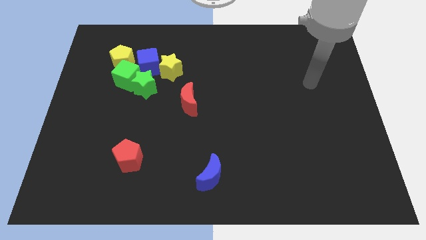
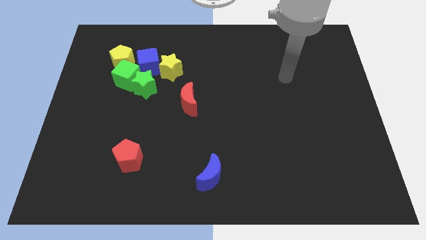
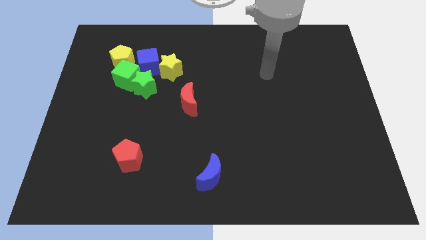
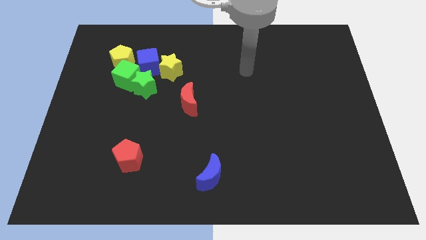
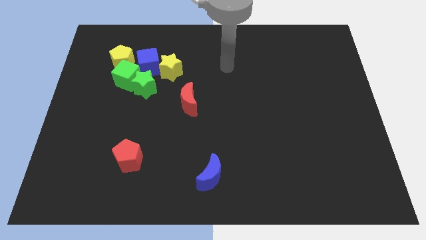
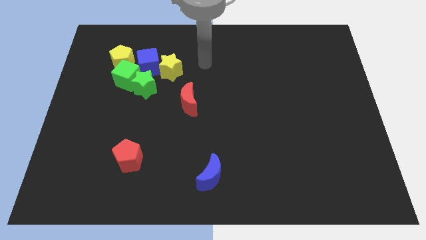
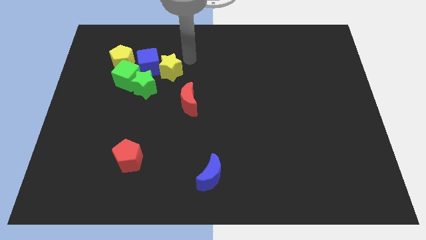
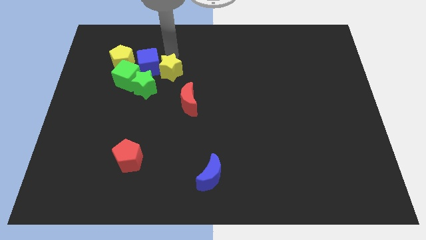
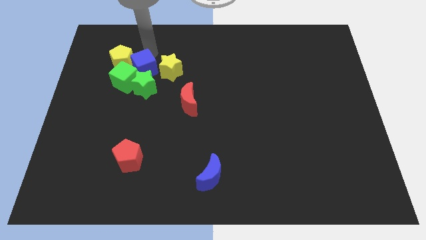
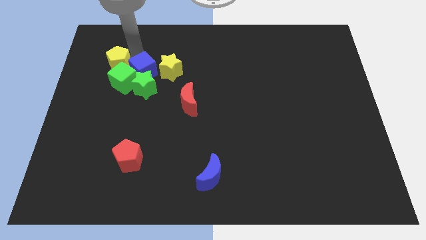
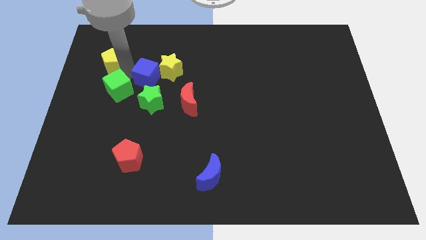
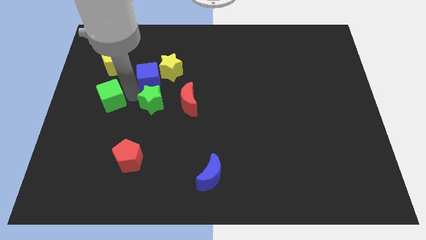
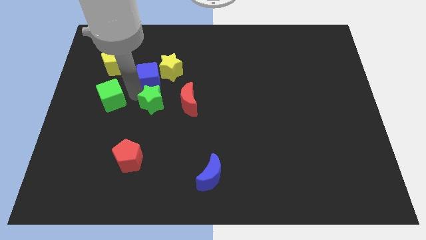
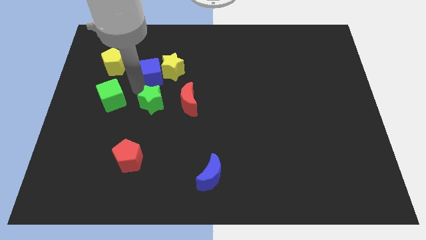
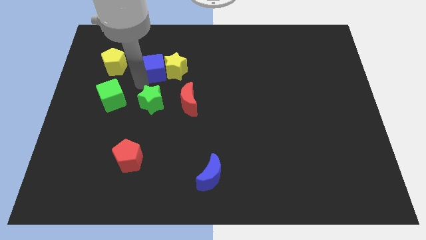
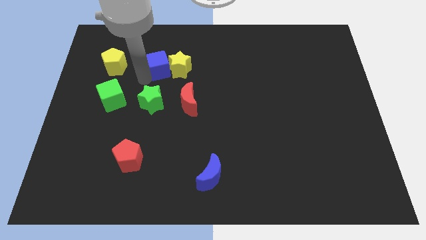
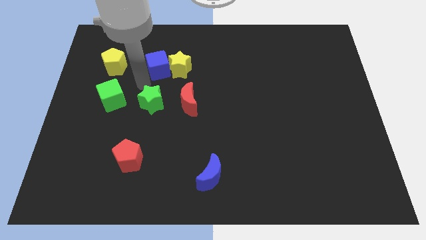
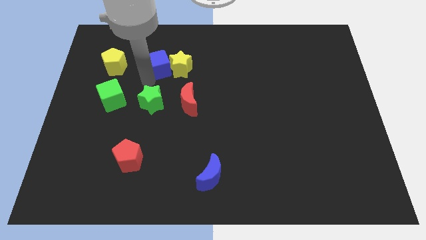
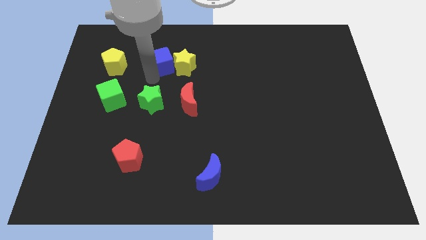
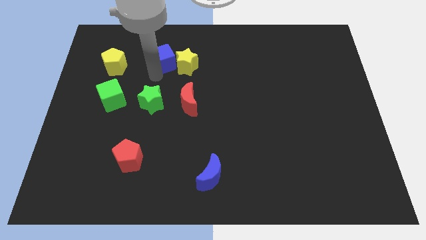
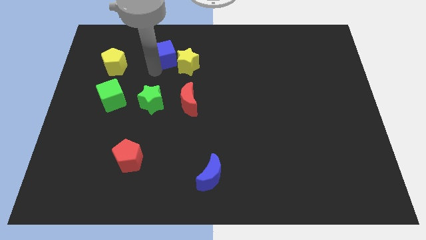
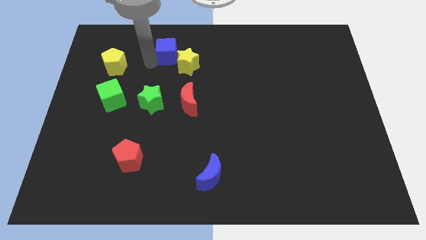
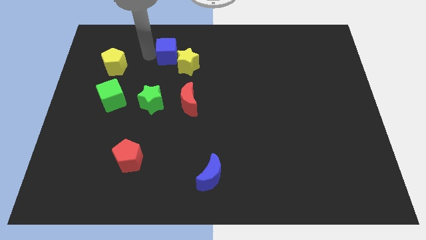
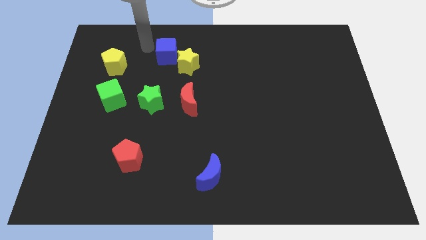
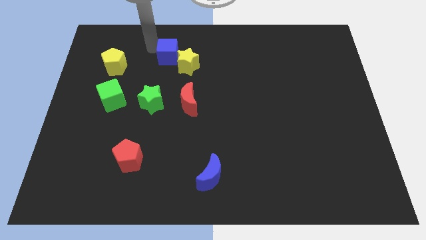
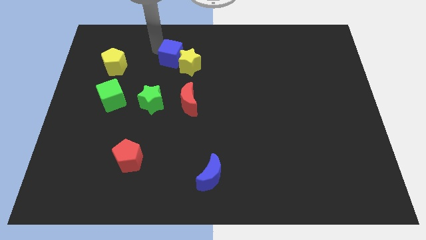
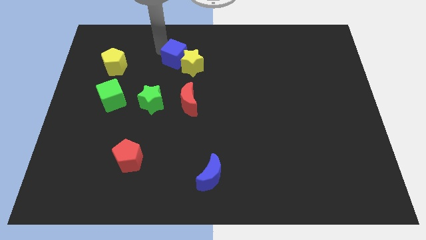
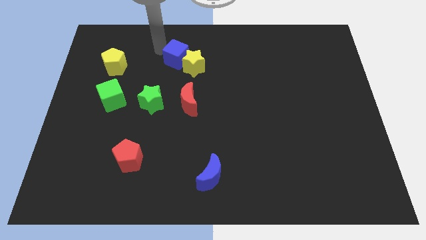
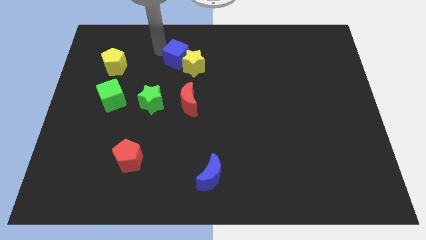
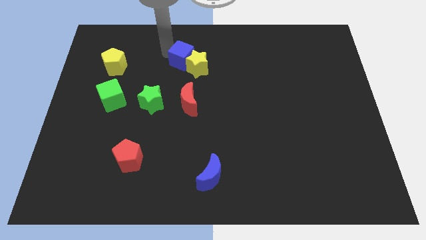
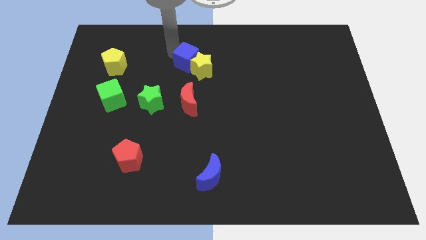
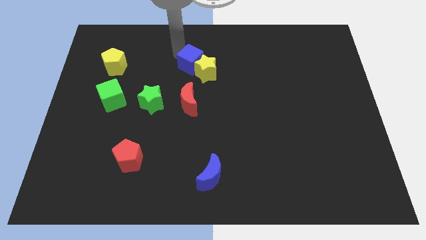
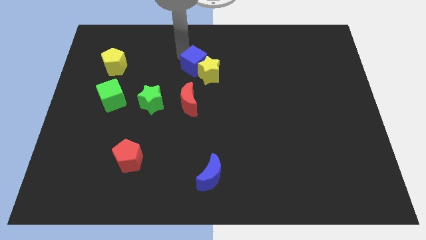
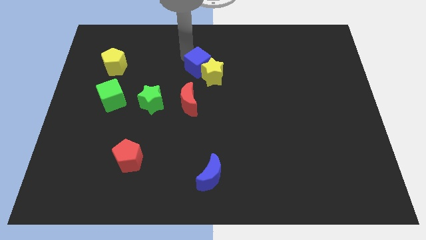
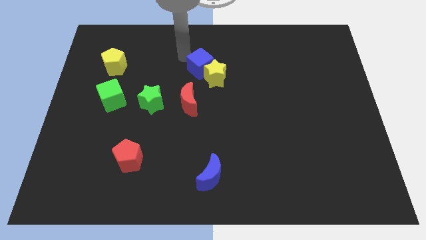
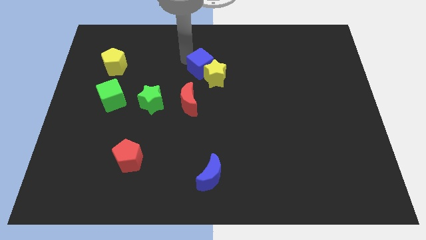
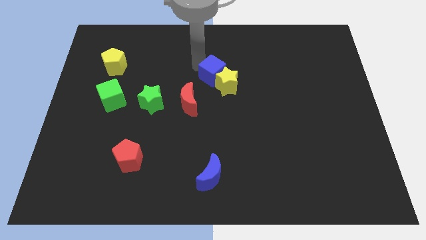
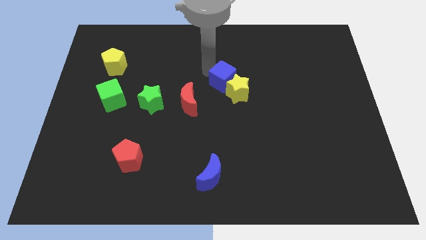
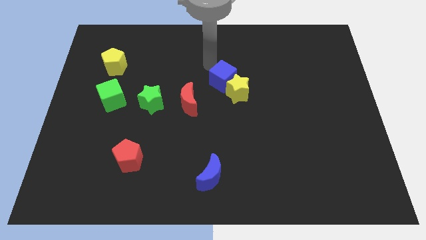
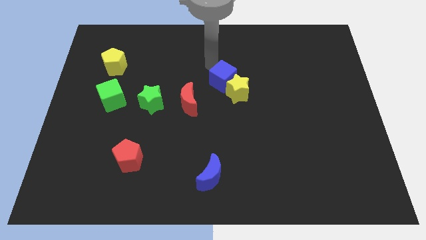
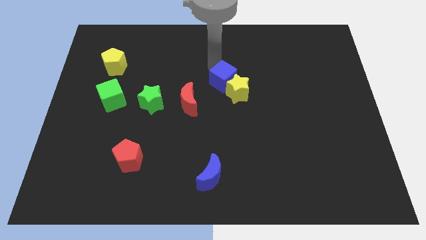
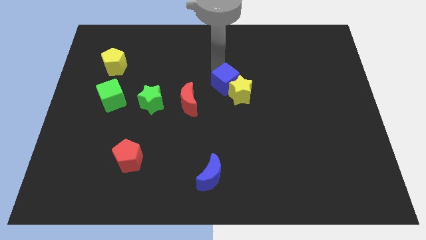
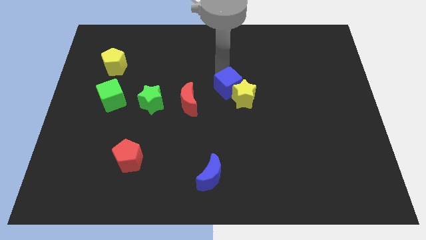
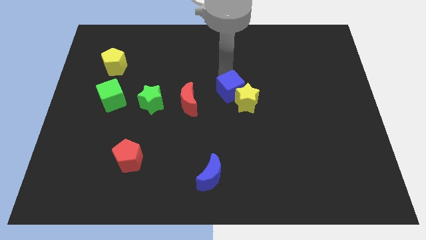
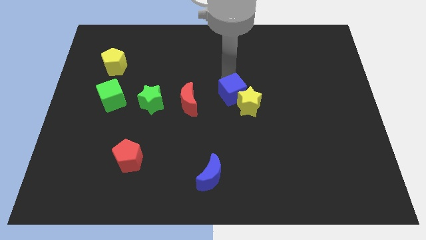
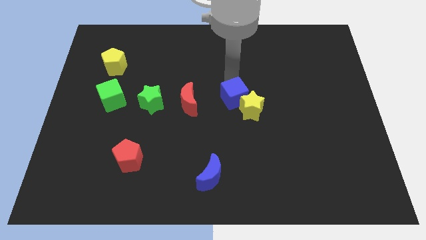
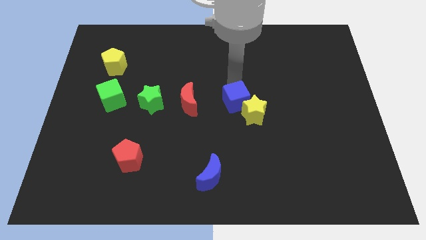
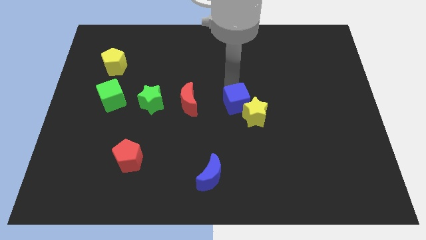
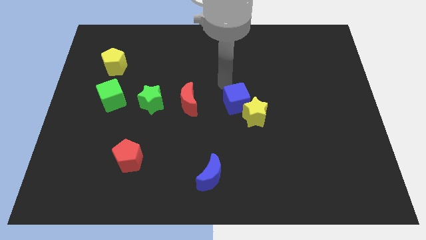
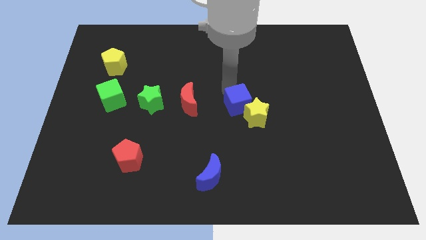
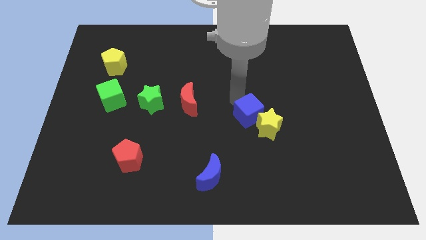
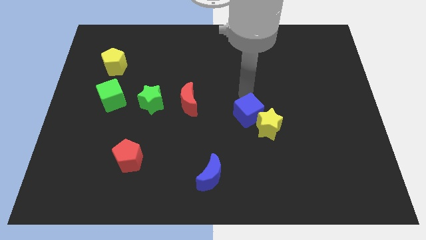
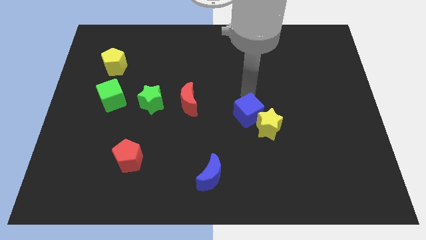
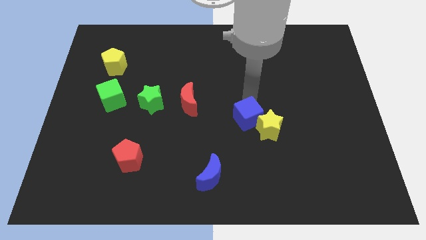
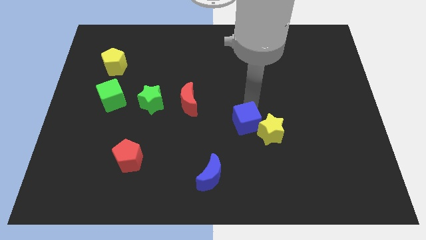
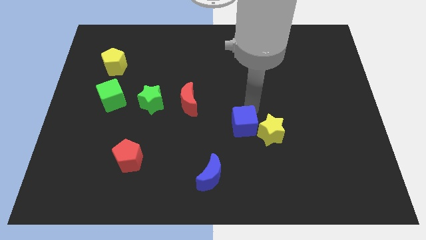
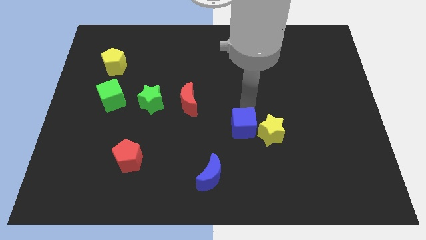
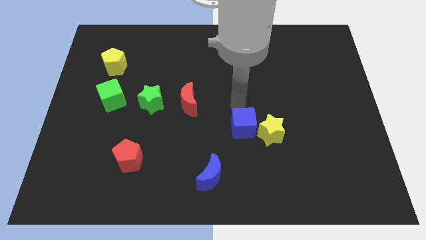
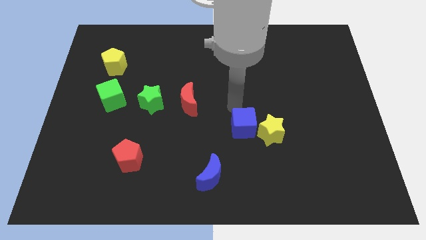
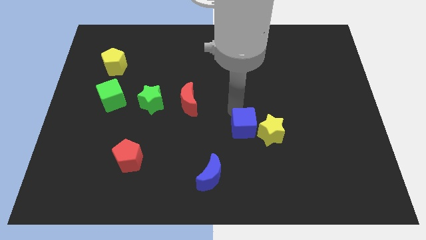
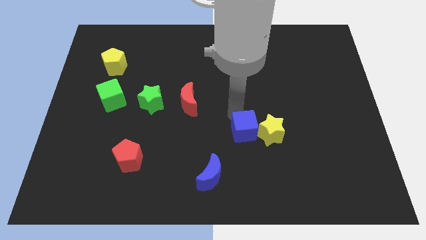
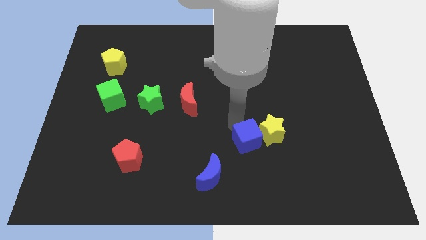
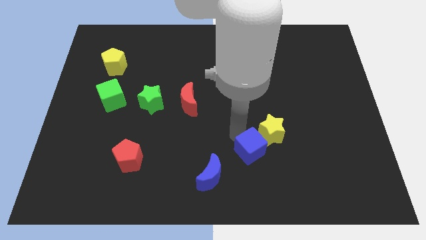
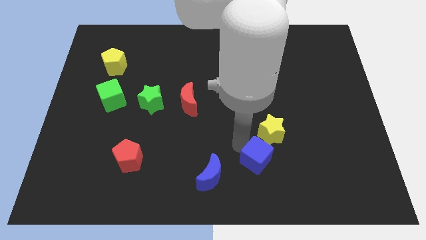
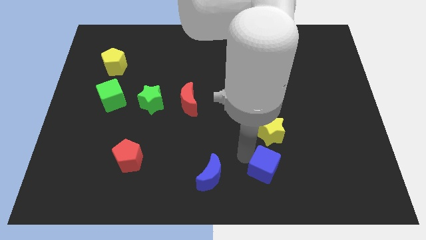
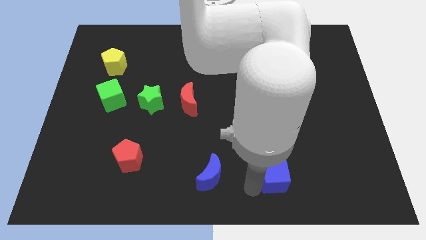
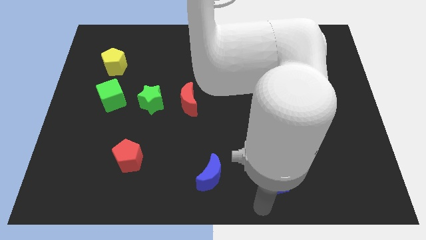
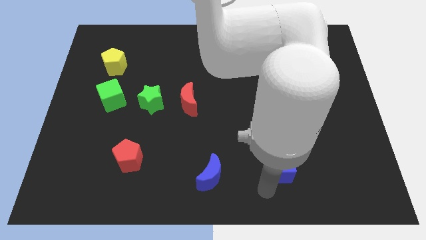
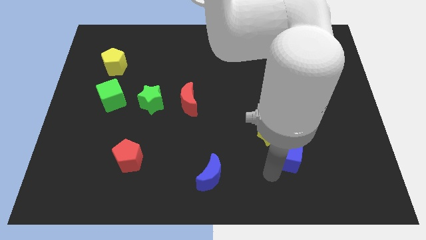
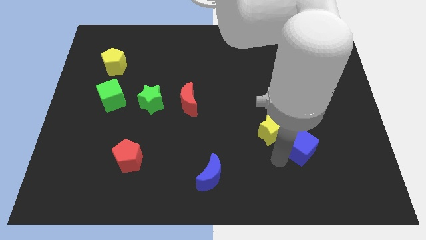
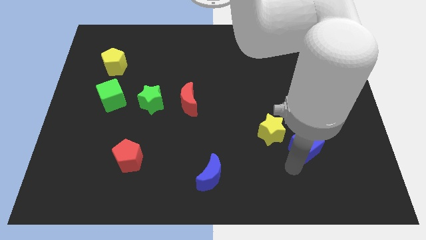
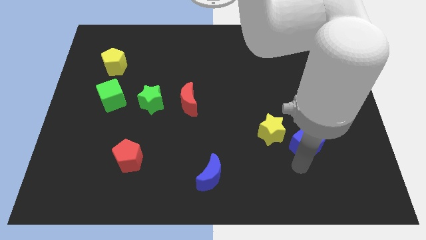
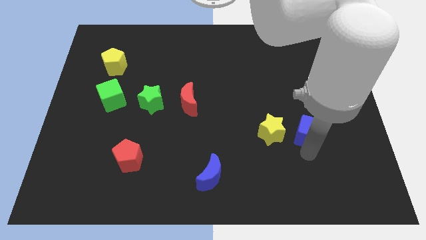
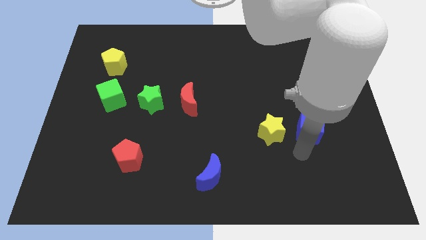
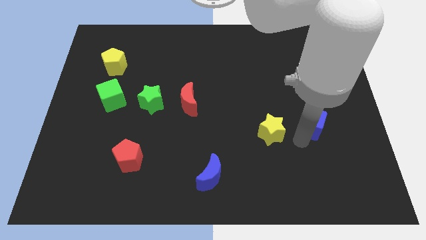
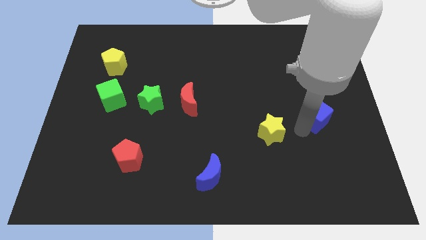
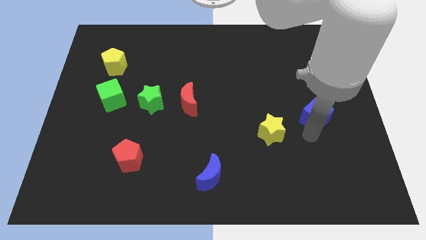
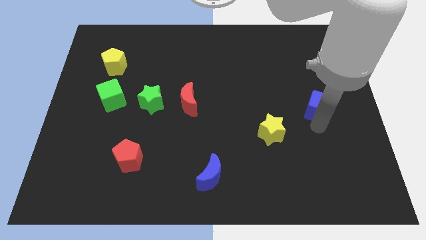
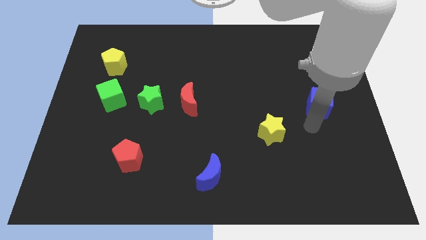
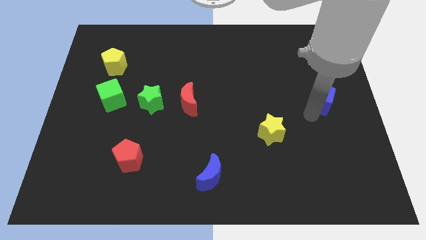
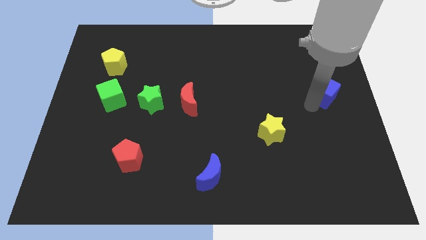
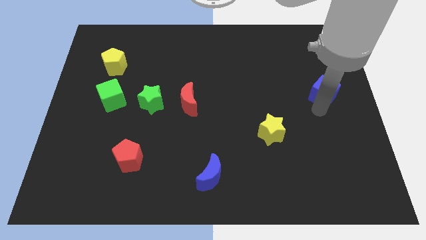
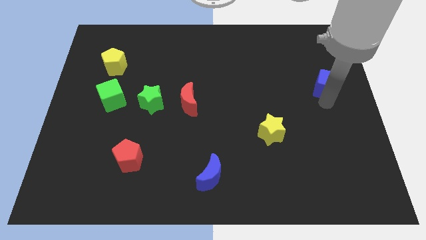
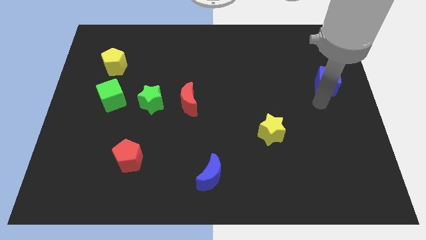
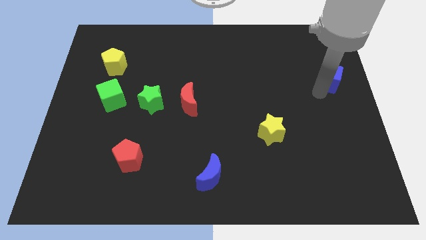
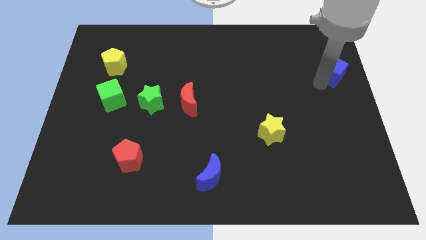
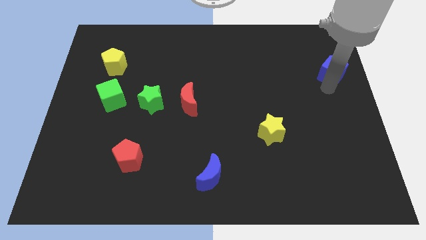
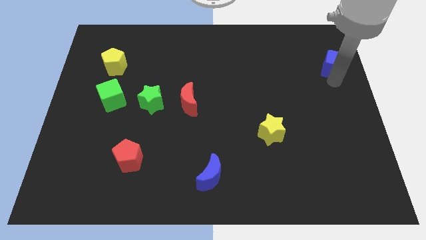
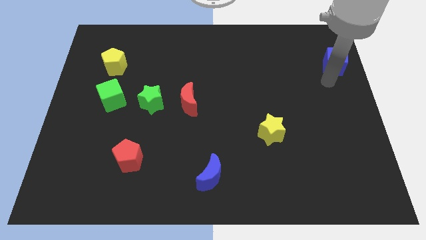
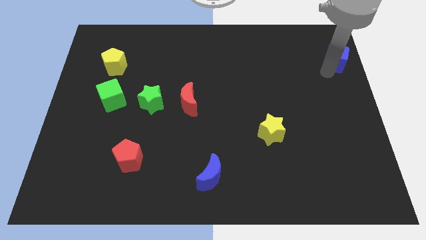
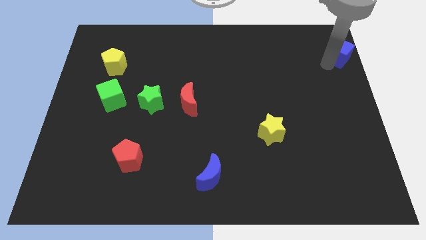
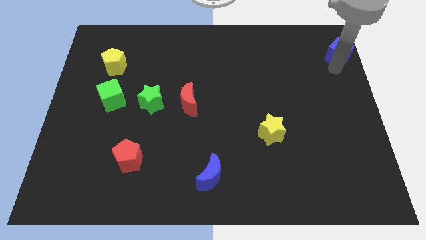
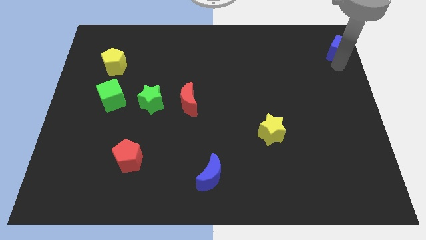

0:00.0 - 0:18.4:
push the blue cube to the top right
